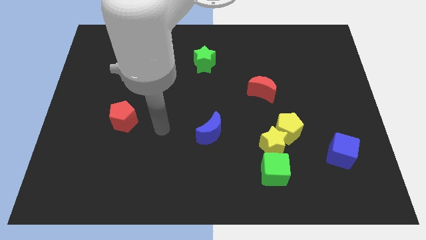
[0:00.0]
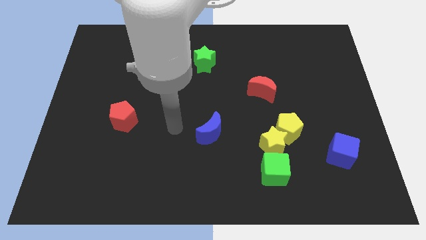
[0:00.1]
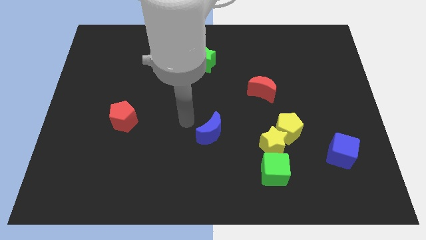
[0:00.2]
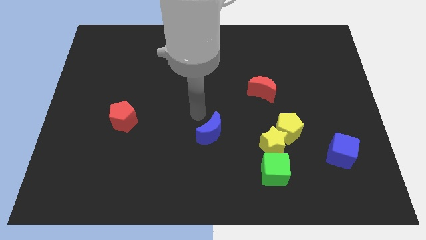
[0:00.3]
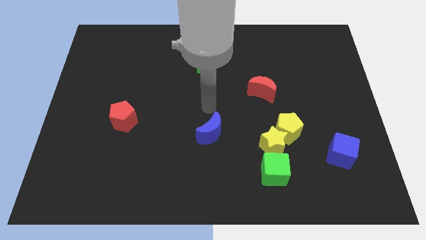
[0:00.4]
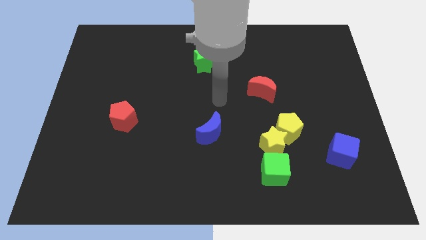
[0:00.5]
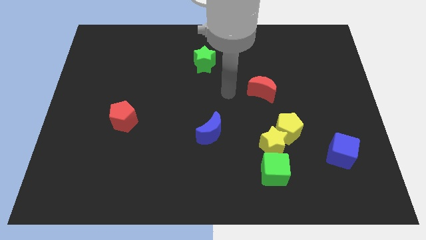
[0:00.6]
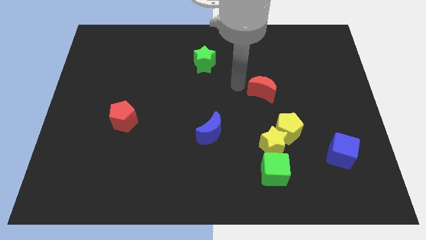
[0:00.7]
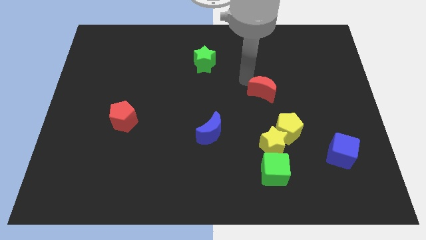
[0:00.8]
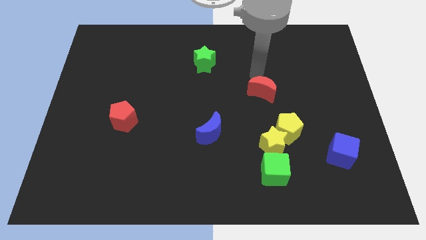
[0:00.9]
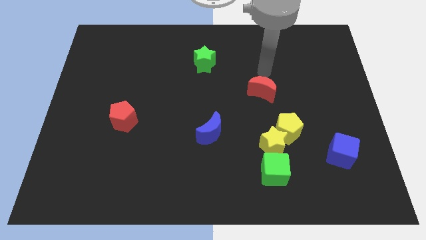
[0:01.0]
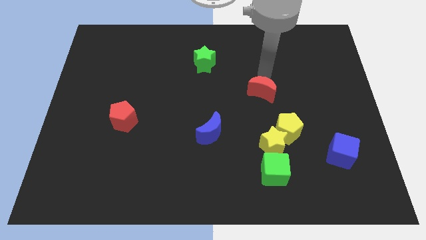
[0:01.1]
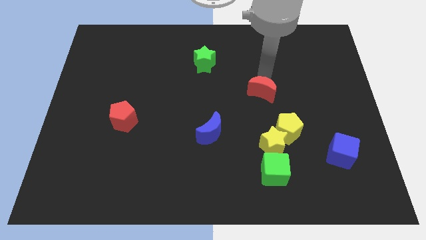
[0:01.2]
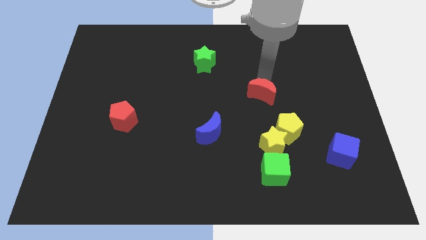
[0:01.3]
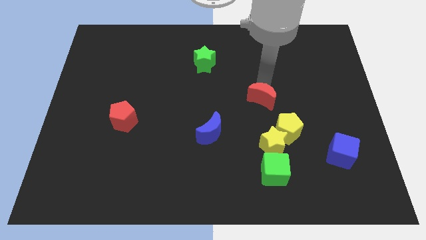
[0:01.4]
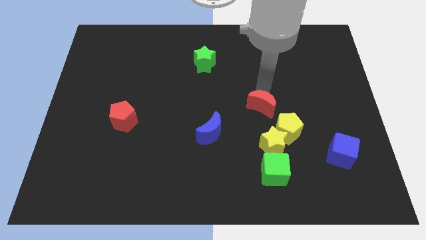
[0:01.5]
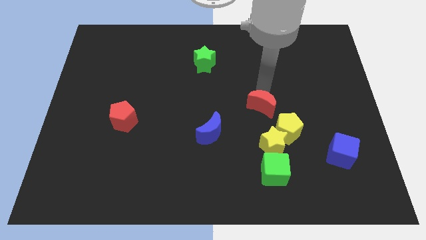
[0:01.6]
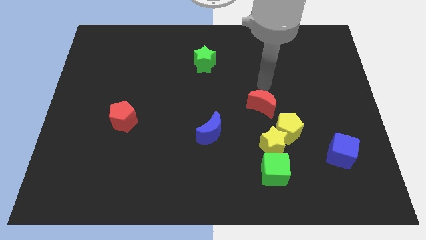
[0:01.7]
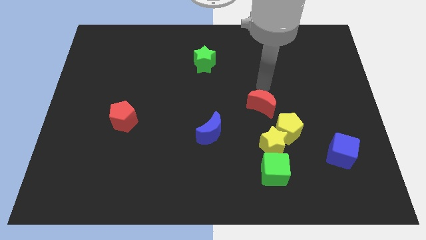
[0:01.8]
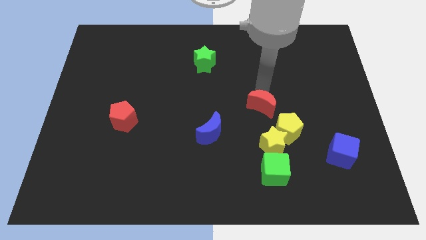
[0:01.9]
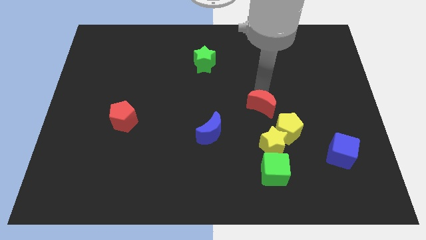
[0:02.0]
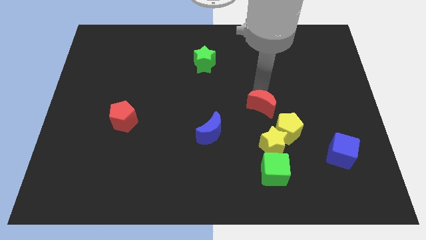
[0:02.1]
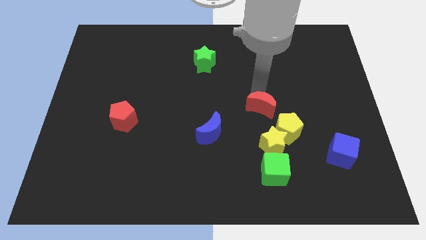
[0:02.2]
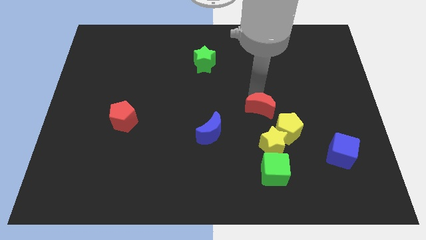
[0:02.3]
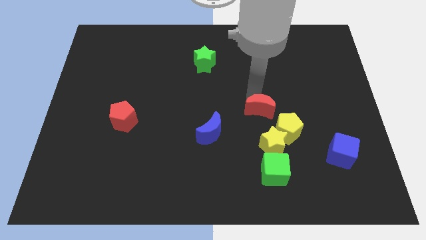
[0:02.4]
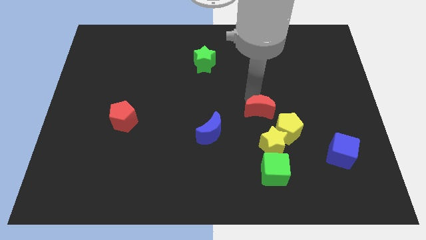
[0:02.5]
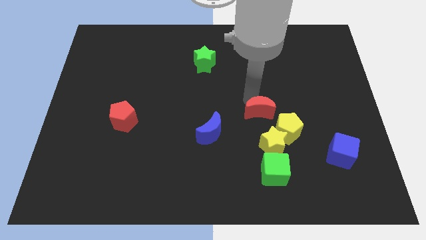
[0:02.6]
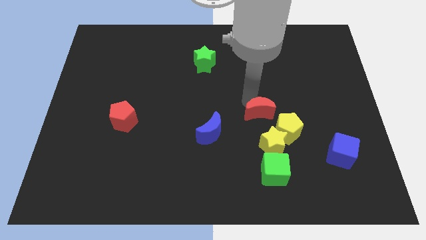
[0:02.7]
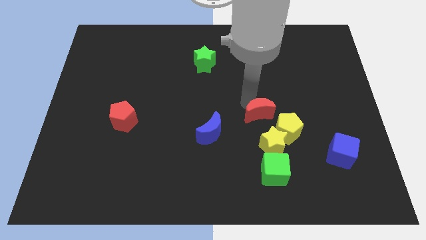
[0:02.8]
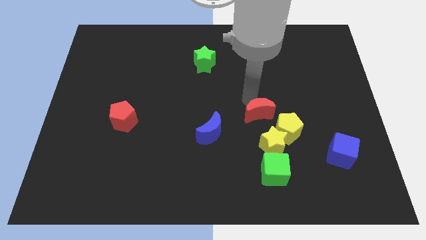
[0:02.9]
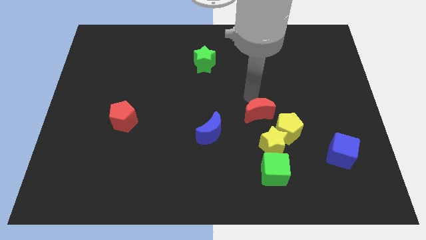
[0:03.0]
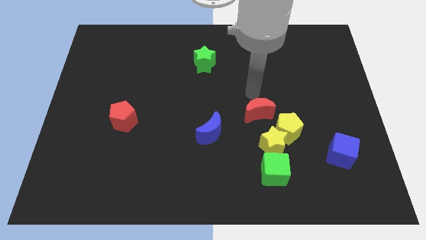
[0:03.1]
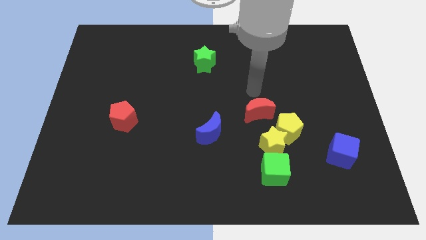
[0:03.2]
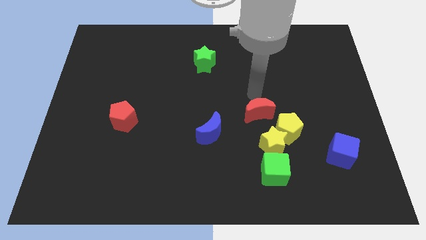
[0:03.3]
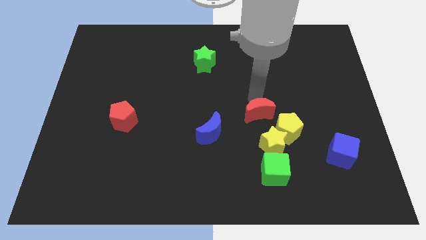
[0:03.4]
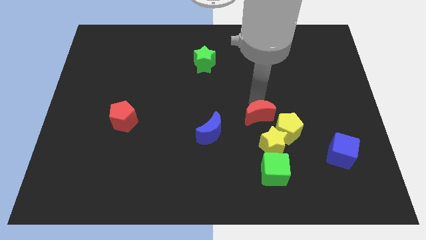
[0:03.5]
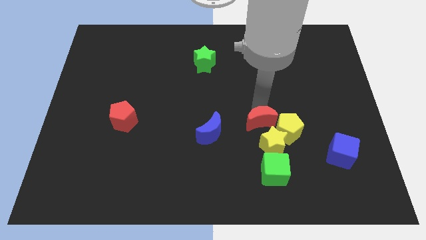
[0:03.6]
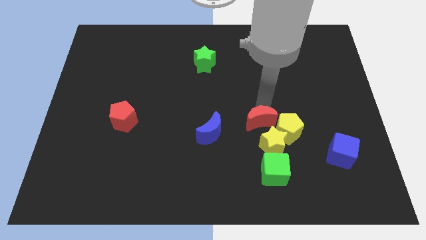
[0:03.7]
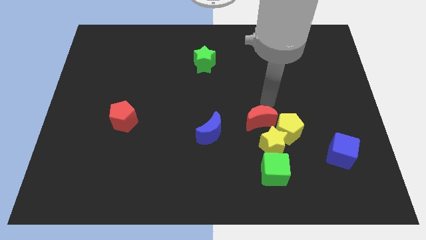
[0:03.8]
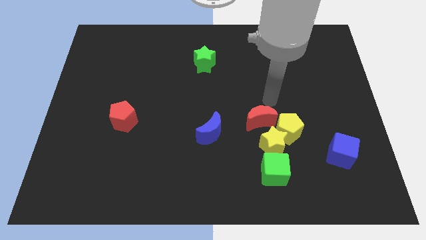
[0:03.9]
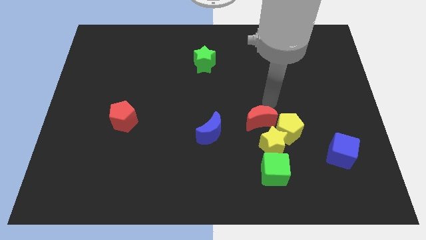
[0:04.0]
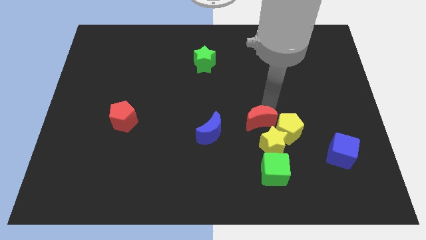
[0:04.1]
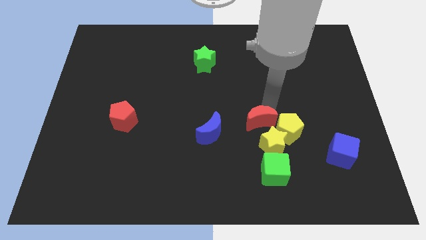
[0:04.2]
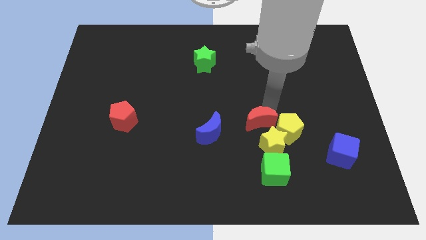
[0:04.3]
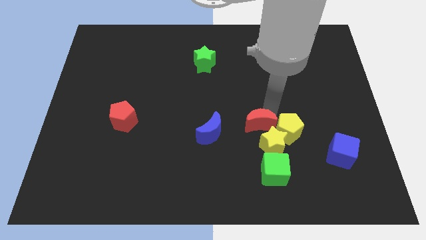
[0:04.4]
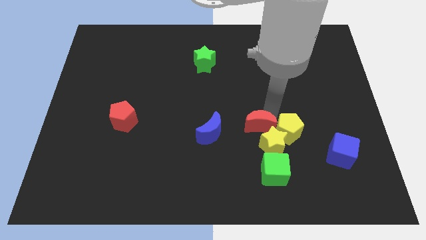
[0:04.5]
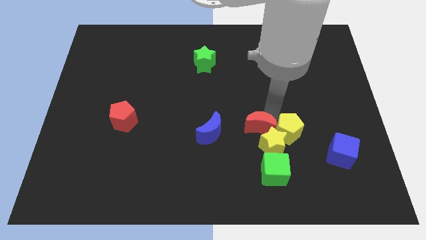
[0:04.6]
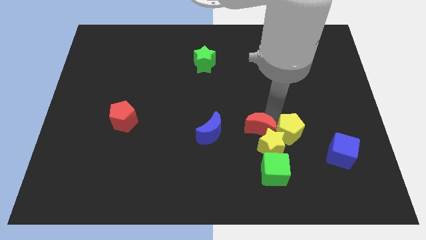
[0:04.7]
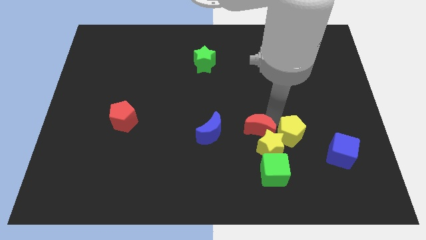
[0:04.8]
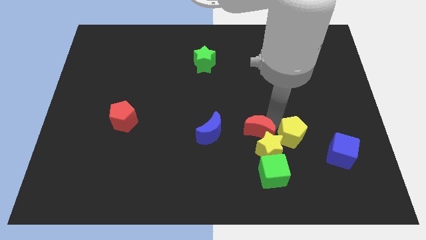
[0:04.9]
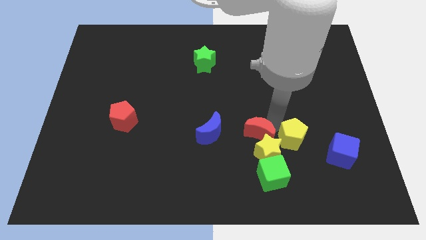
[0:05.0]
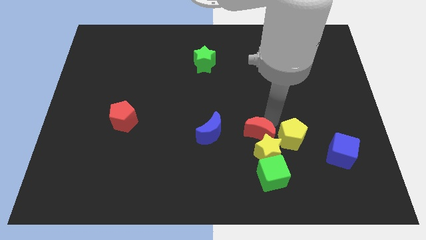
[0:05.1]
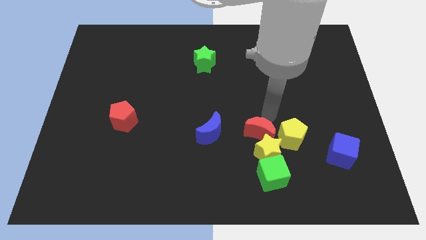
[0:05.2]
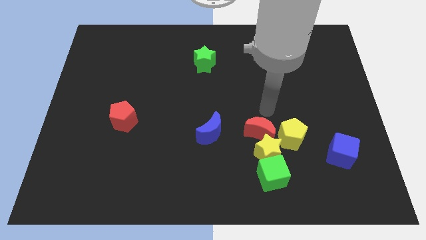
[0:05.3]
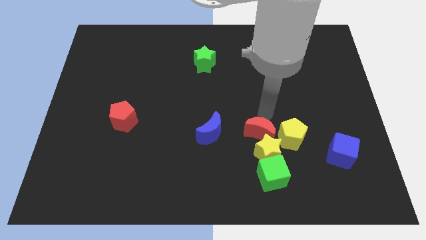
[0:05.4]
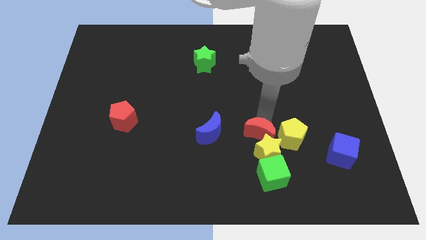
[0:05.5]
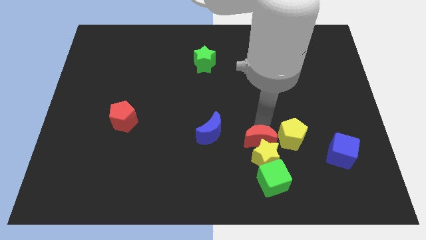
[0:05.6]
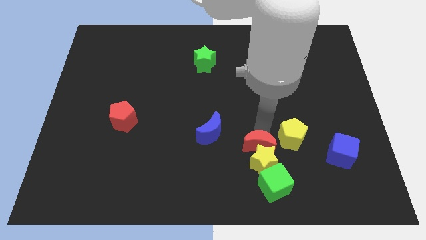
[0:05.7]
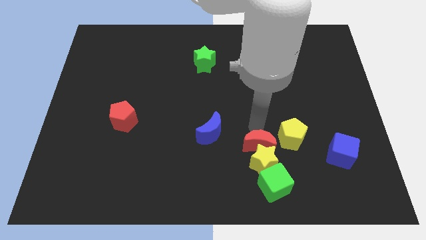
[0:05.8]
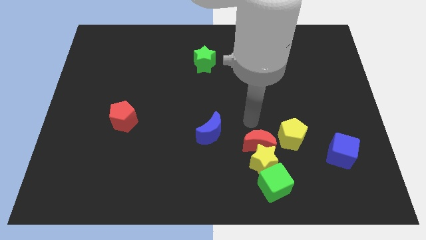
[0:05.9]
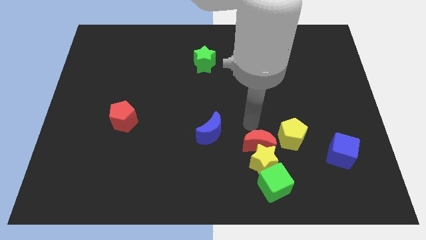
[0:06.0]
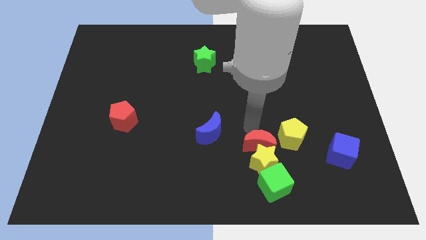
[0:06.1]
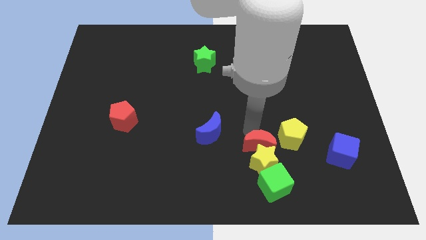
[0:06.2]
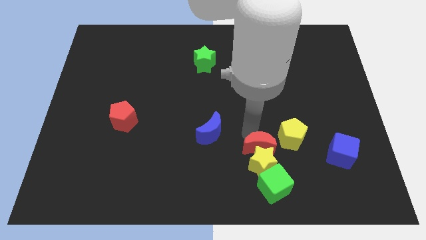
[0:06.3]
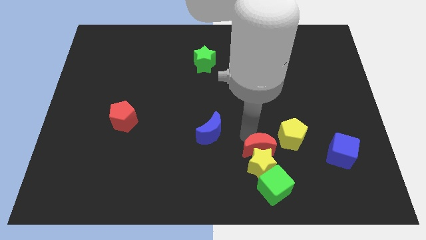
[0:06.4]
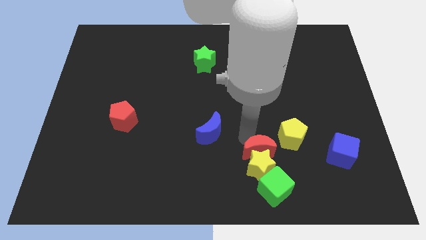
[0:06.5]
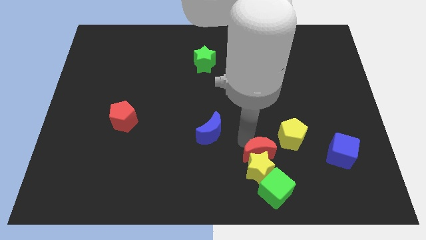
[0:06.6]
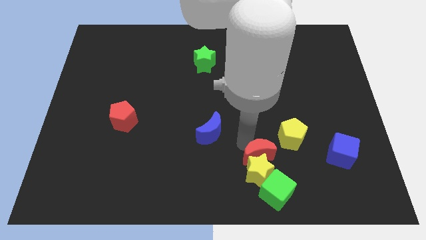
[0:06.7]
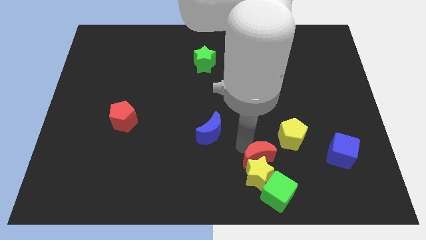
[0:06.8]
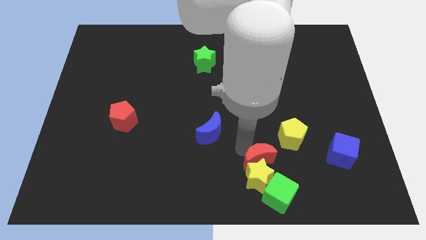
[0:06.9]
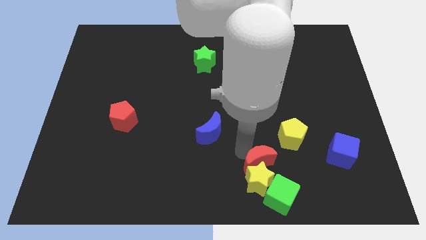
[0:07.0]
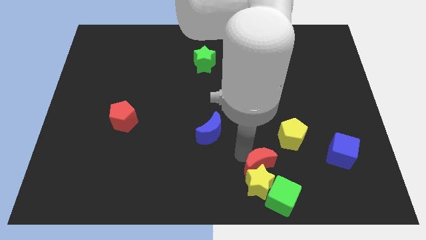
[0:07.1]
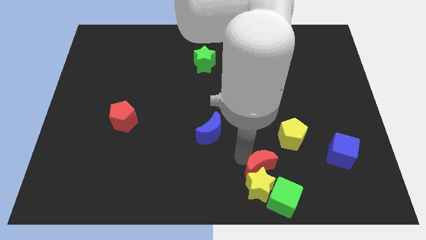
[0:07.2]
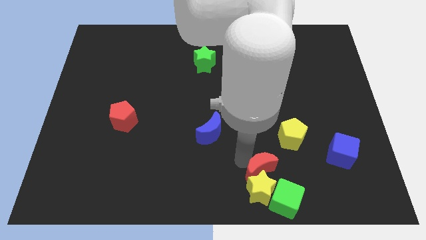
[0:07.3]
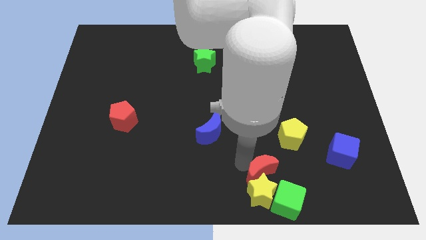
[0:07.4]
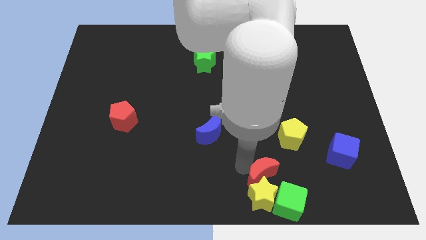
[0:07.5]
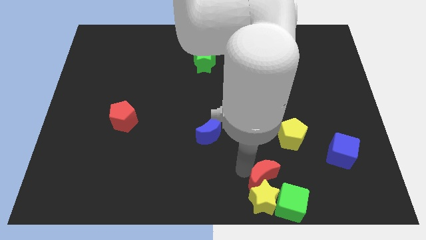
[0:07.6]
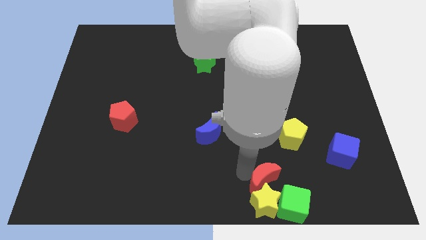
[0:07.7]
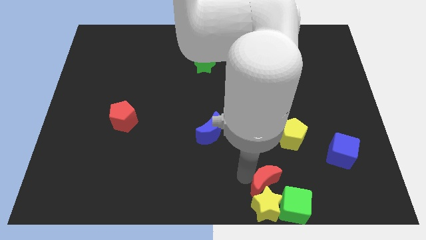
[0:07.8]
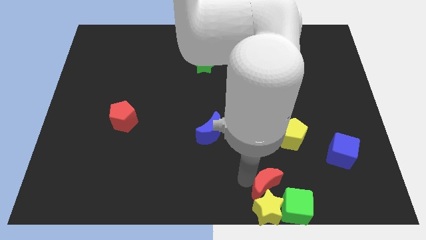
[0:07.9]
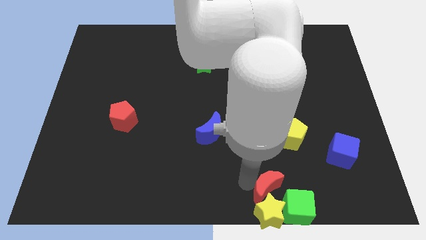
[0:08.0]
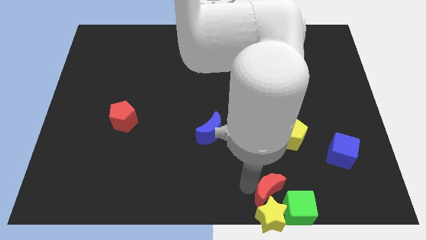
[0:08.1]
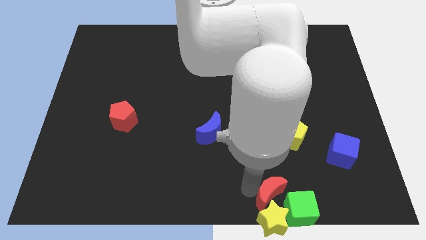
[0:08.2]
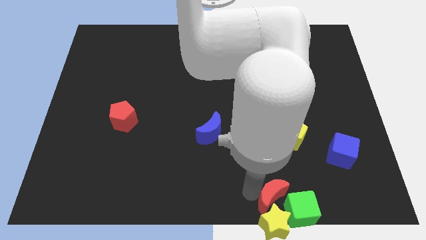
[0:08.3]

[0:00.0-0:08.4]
push the red moon close to the green cube
